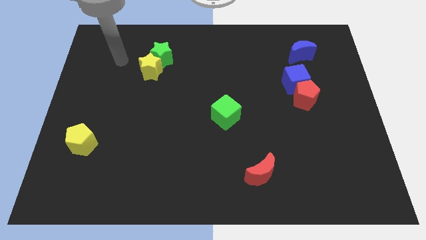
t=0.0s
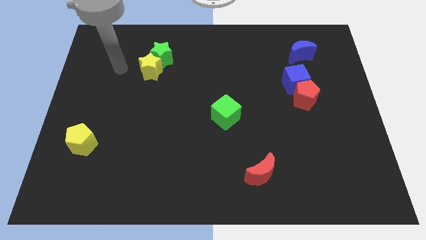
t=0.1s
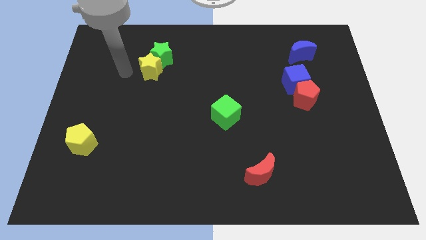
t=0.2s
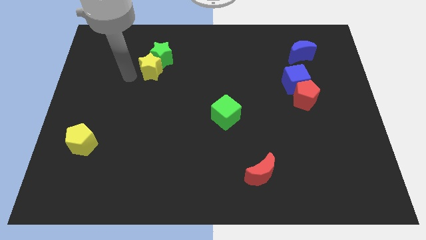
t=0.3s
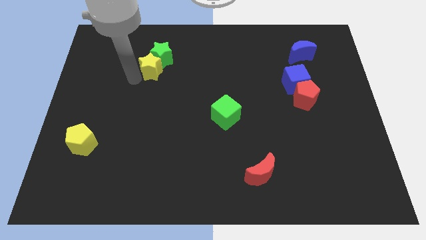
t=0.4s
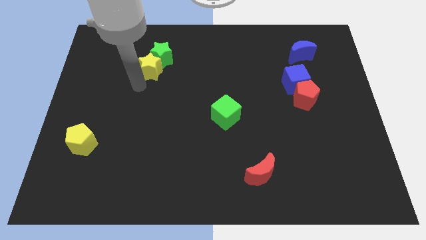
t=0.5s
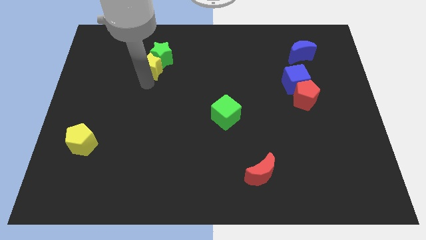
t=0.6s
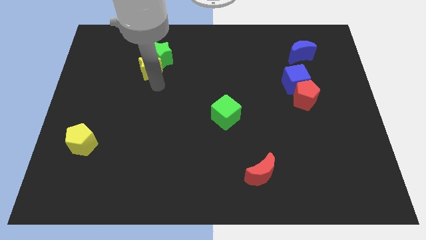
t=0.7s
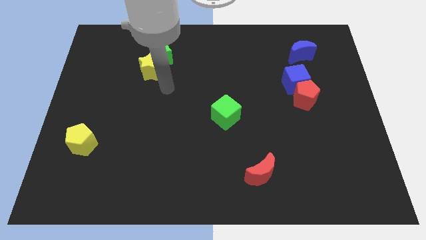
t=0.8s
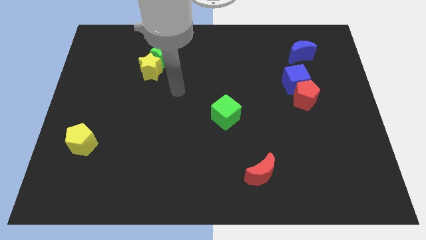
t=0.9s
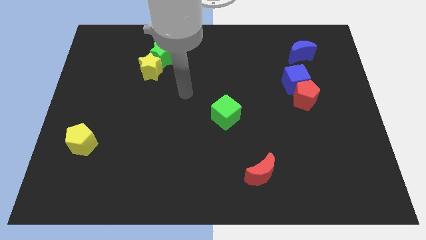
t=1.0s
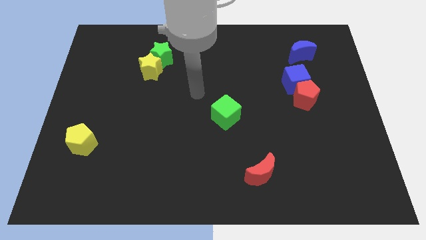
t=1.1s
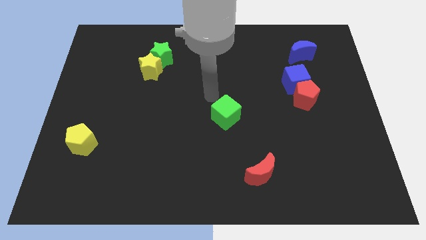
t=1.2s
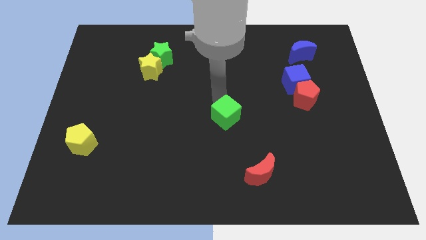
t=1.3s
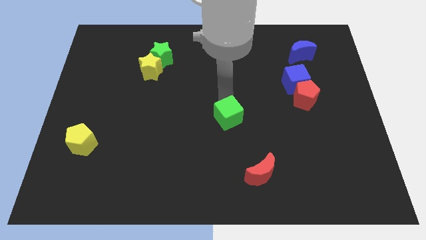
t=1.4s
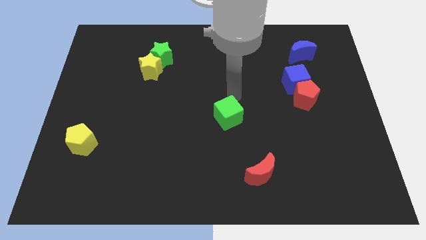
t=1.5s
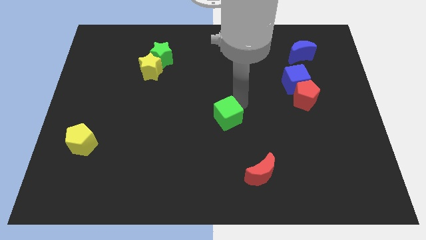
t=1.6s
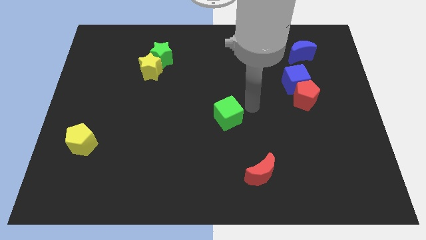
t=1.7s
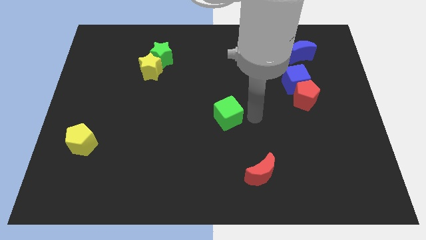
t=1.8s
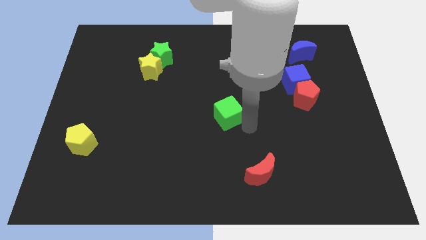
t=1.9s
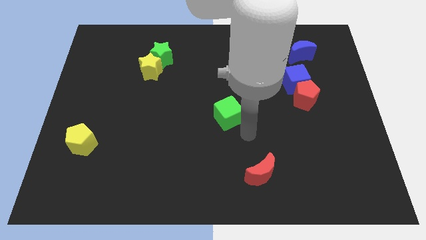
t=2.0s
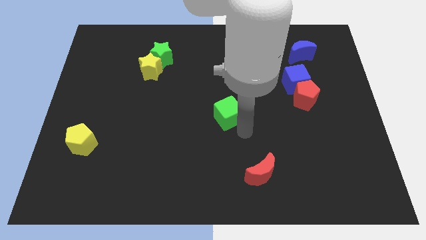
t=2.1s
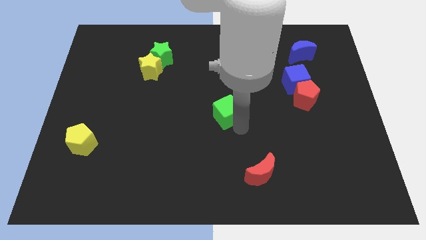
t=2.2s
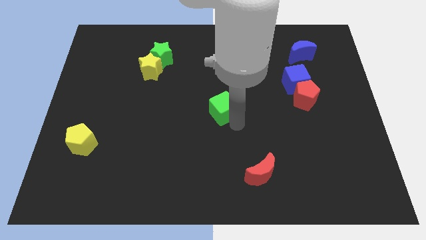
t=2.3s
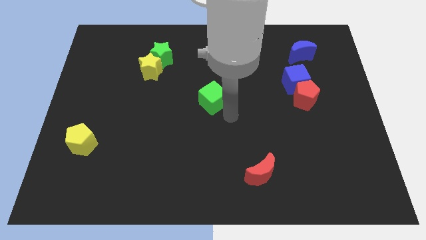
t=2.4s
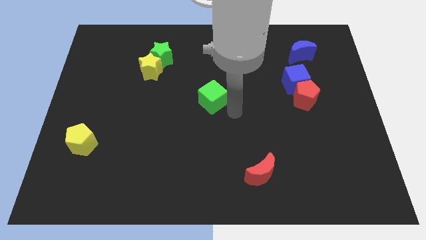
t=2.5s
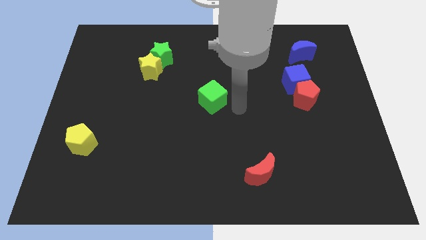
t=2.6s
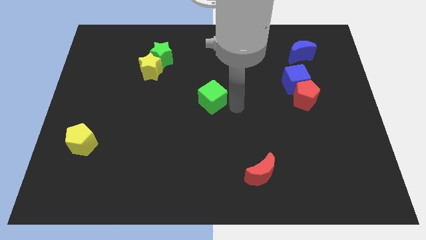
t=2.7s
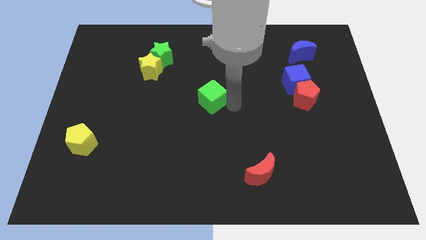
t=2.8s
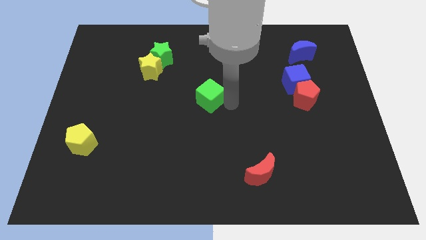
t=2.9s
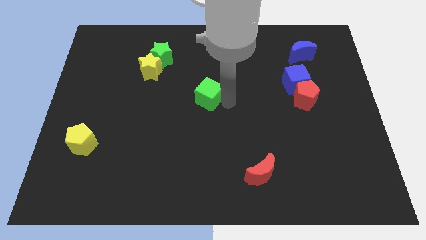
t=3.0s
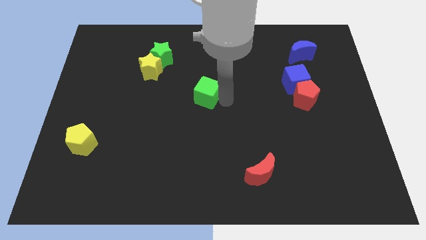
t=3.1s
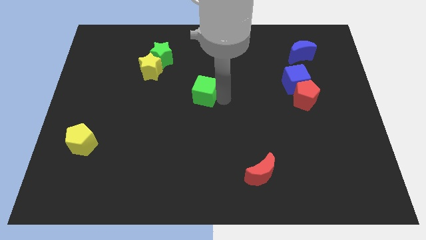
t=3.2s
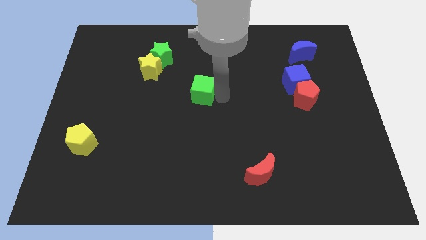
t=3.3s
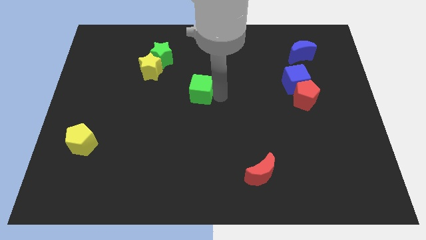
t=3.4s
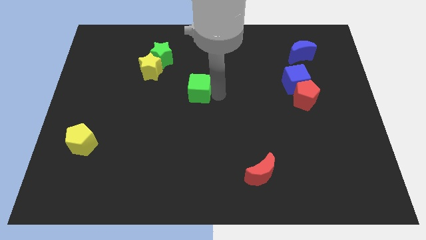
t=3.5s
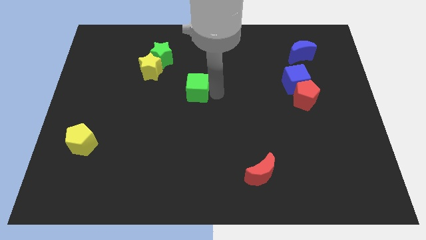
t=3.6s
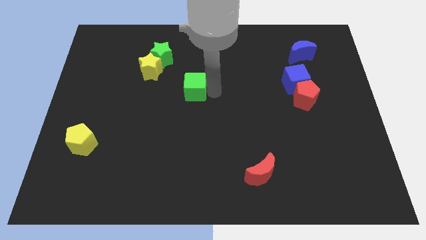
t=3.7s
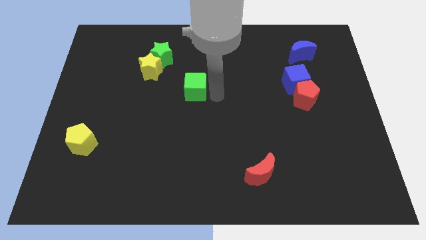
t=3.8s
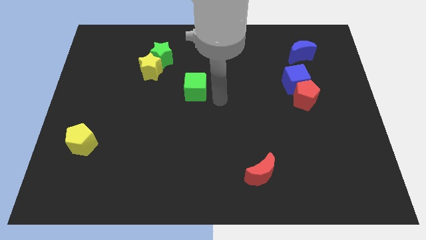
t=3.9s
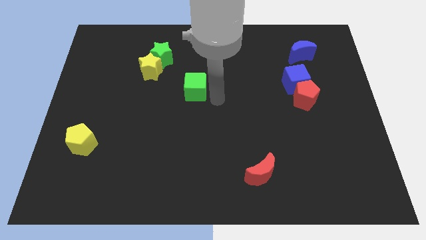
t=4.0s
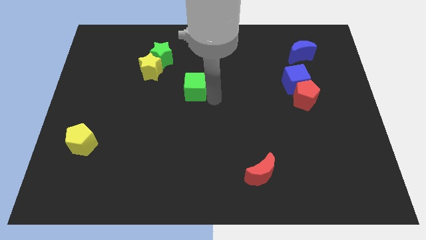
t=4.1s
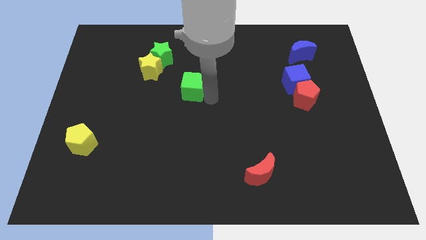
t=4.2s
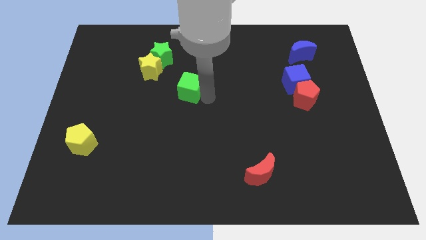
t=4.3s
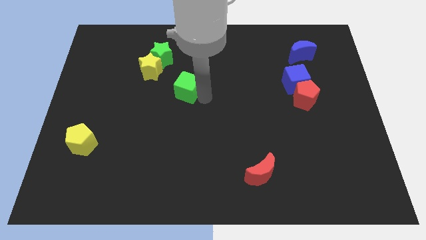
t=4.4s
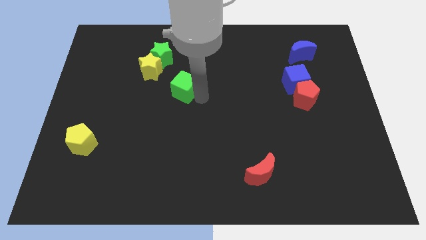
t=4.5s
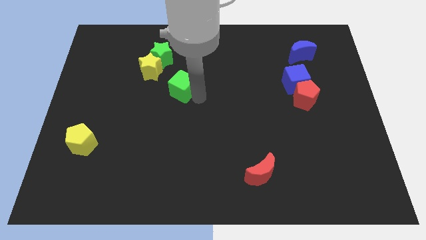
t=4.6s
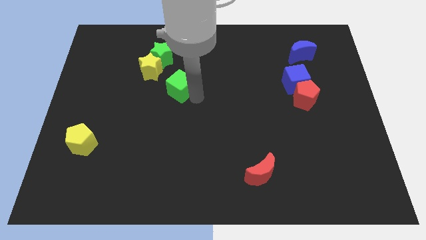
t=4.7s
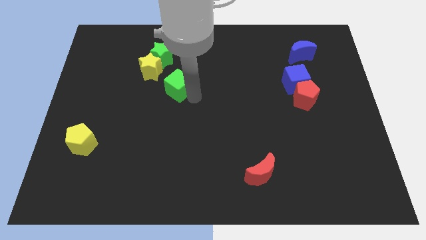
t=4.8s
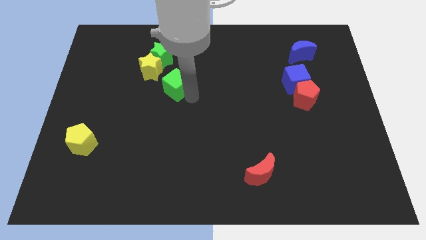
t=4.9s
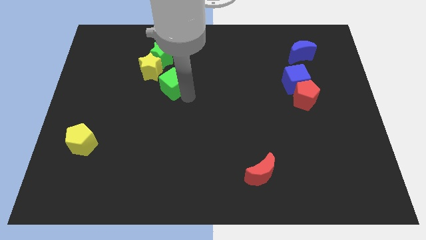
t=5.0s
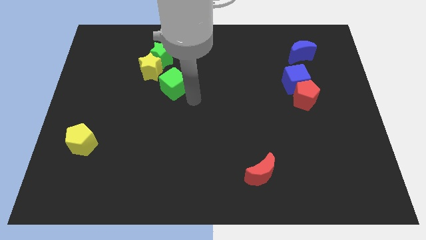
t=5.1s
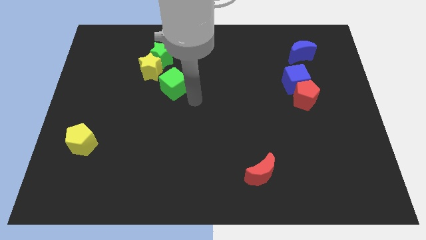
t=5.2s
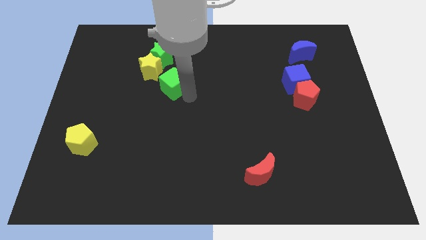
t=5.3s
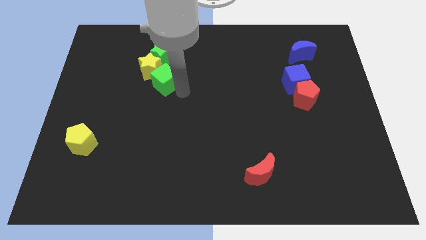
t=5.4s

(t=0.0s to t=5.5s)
slide the green cube towards the yellow star

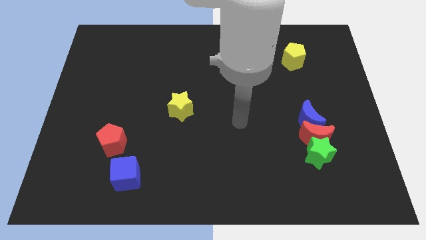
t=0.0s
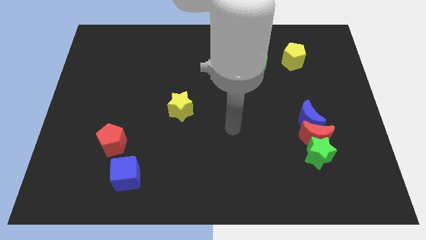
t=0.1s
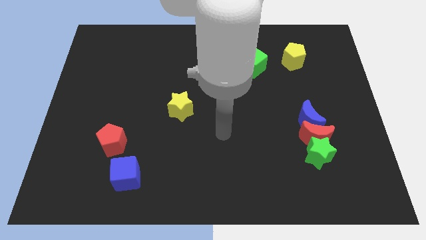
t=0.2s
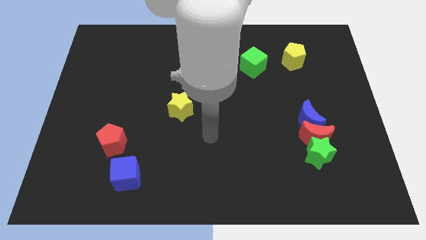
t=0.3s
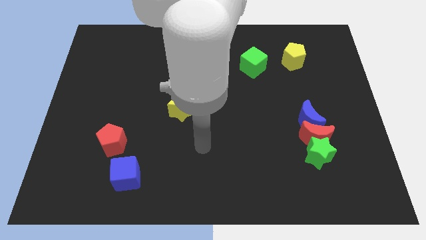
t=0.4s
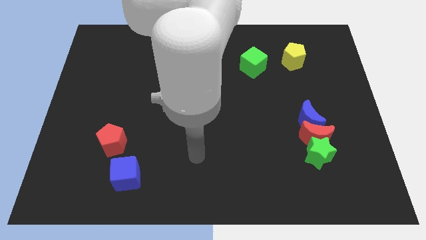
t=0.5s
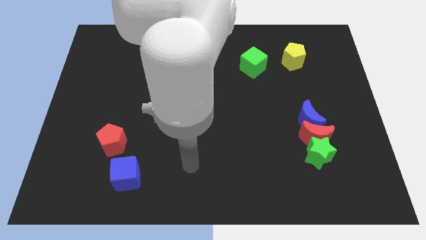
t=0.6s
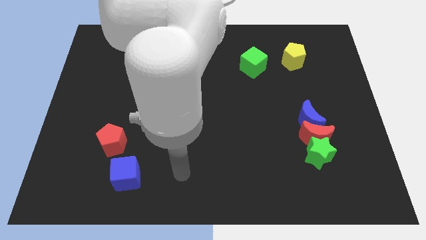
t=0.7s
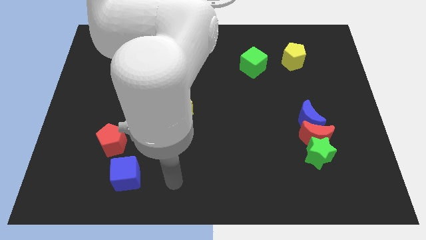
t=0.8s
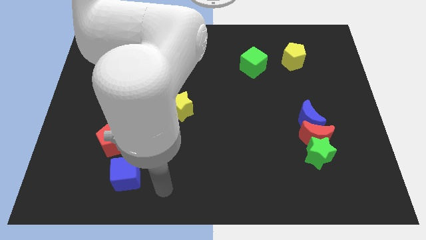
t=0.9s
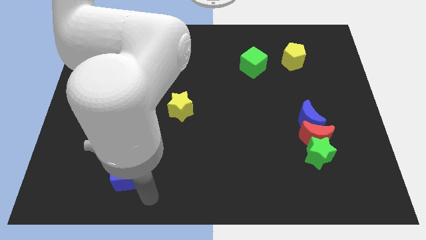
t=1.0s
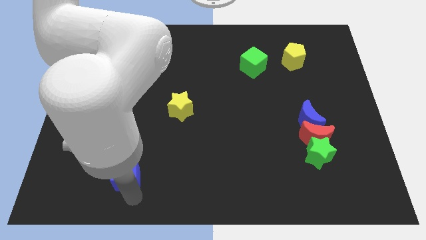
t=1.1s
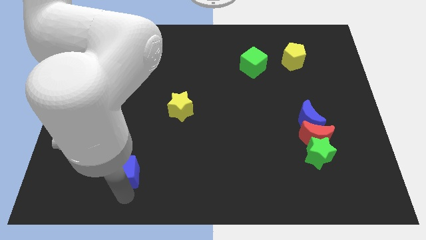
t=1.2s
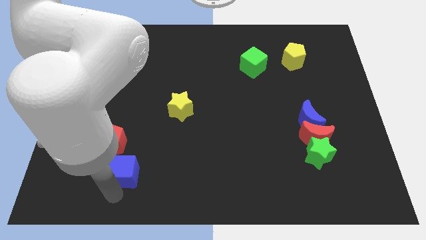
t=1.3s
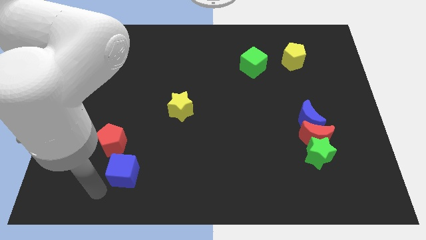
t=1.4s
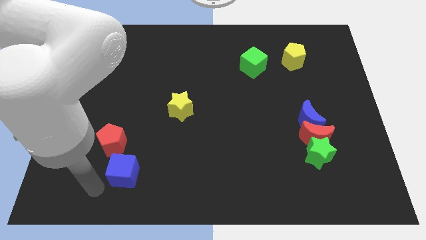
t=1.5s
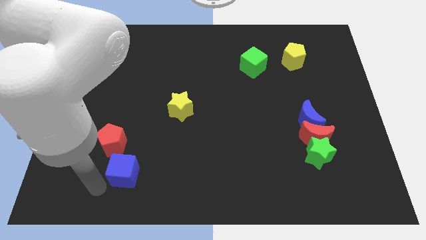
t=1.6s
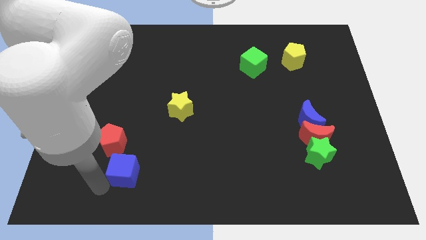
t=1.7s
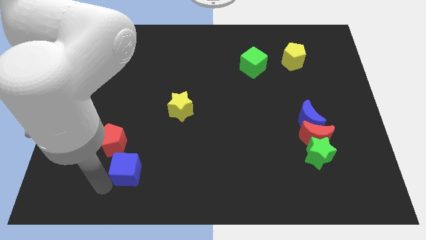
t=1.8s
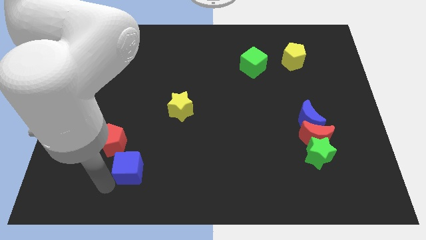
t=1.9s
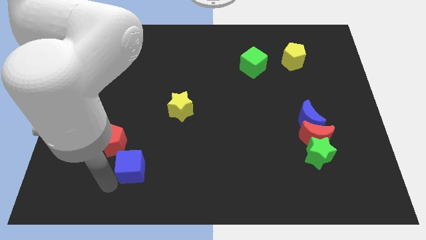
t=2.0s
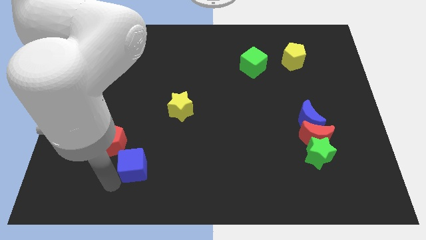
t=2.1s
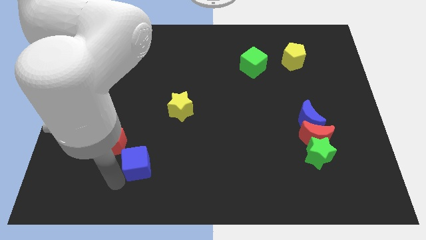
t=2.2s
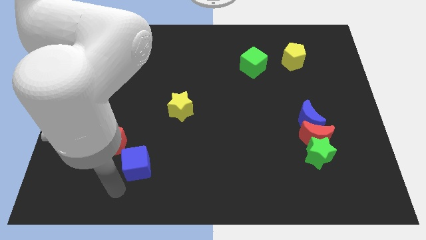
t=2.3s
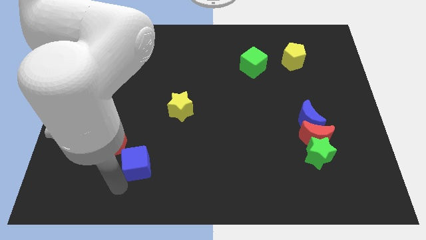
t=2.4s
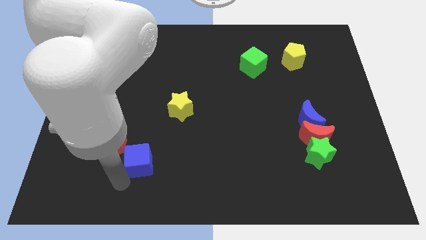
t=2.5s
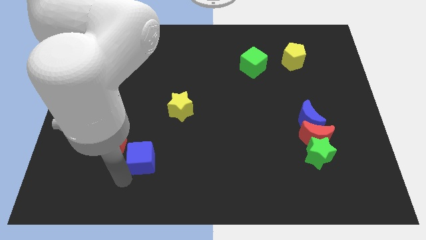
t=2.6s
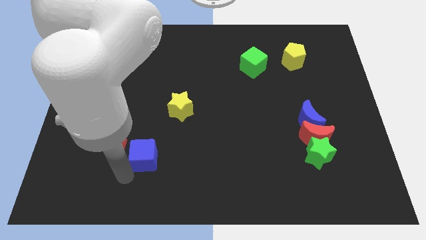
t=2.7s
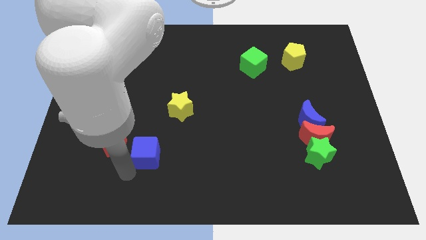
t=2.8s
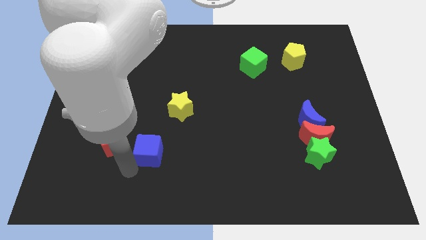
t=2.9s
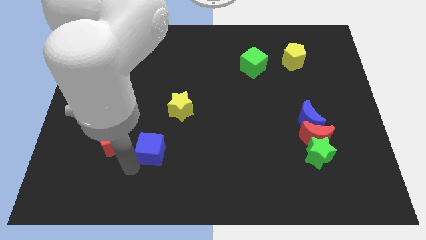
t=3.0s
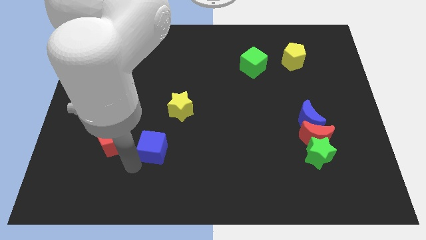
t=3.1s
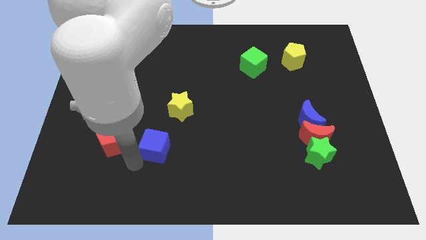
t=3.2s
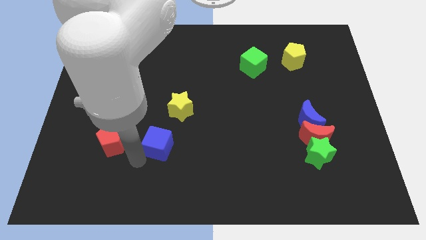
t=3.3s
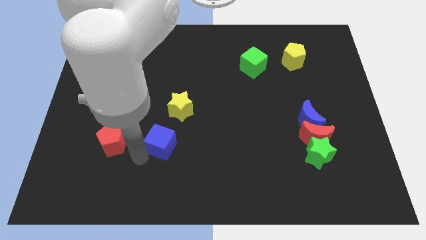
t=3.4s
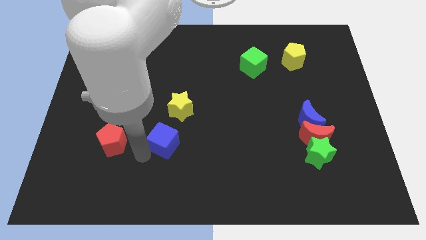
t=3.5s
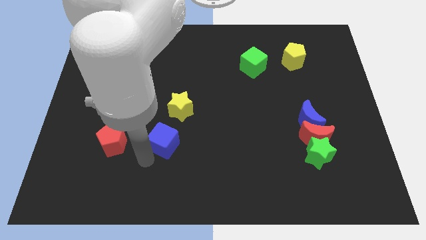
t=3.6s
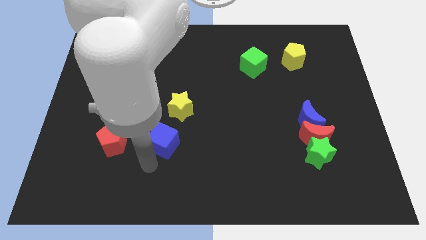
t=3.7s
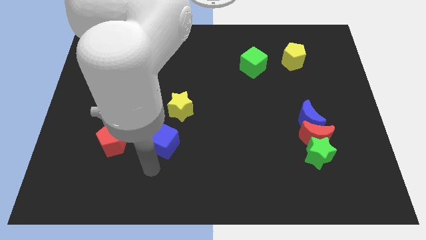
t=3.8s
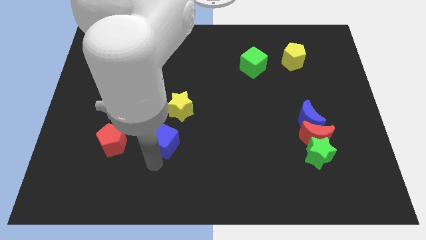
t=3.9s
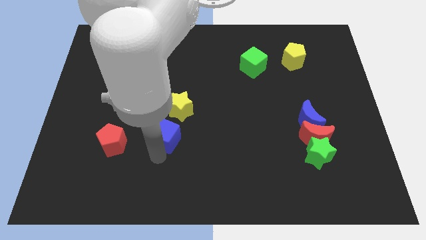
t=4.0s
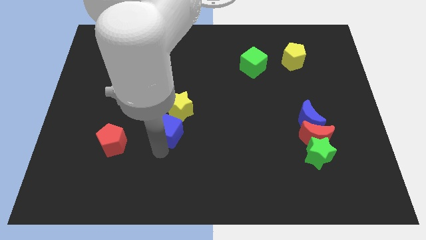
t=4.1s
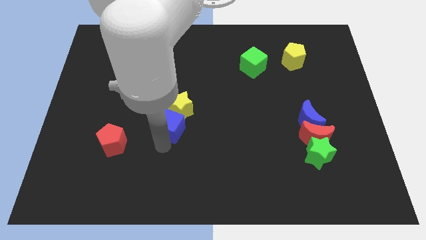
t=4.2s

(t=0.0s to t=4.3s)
put the blue cube close to the yellow star
